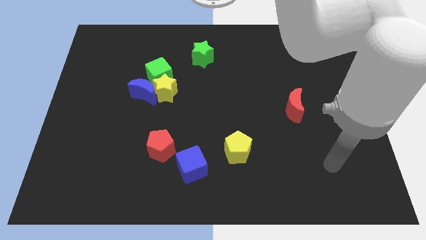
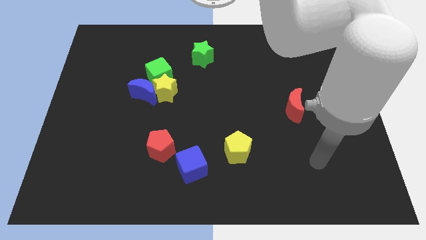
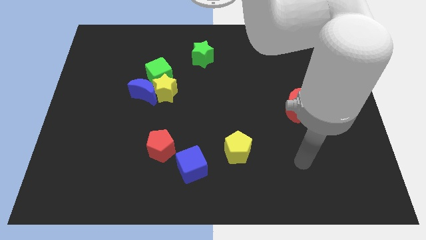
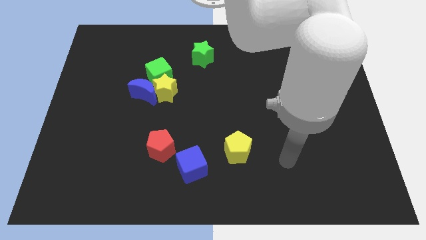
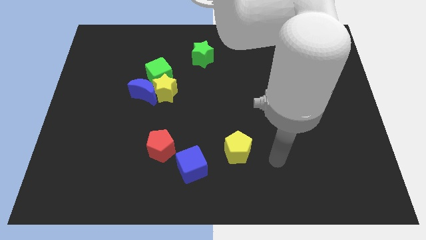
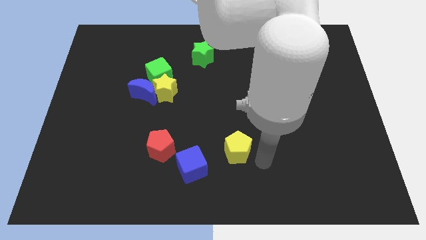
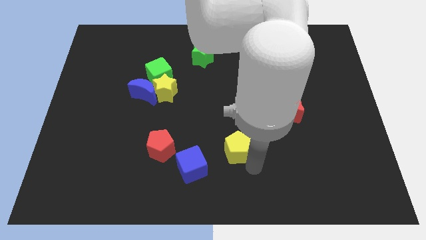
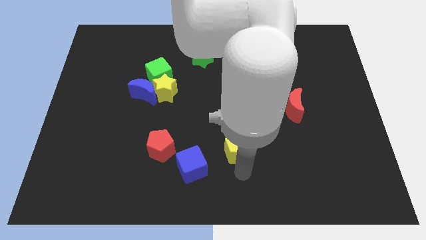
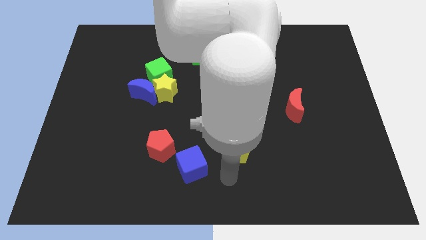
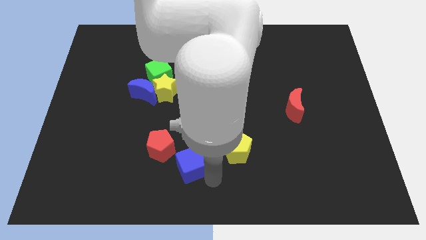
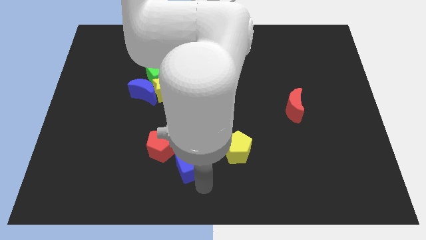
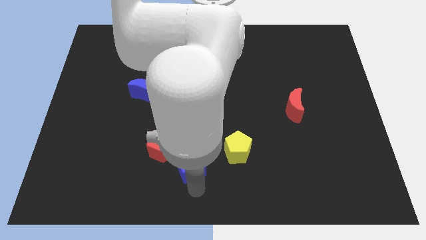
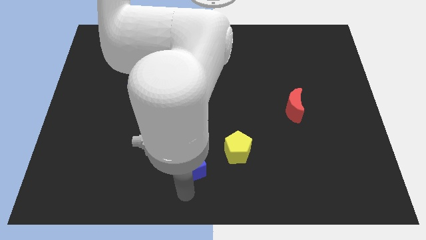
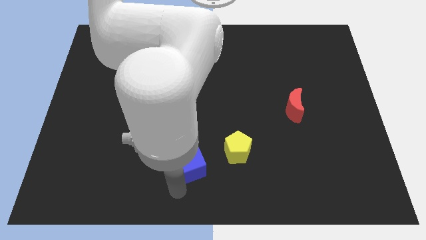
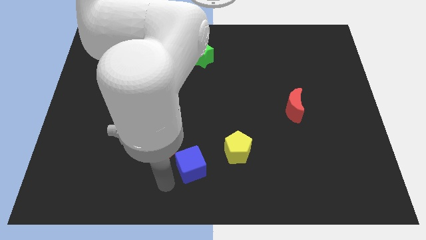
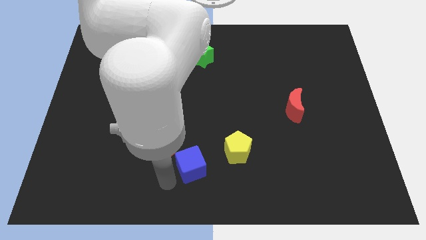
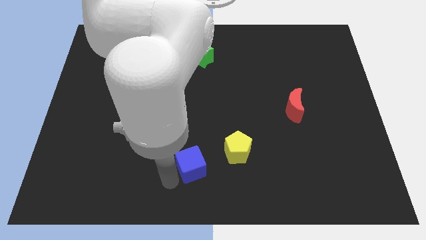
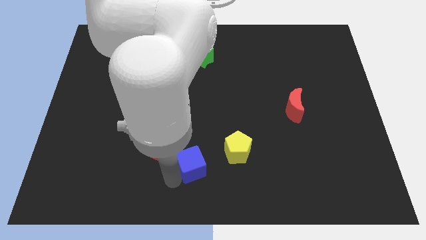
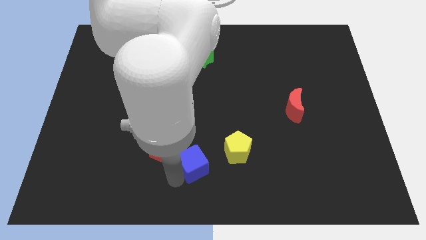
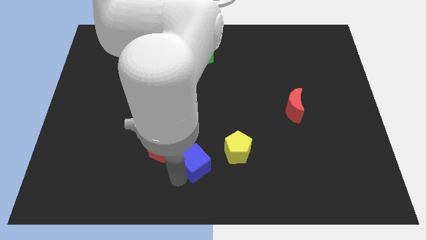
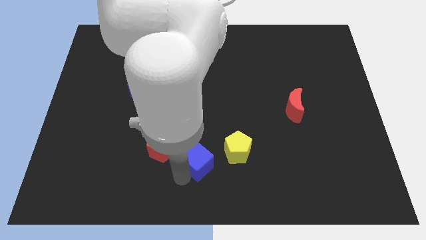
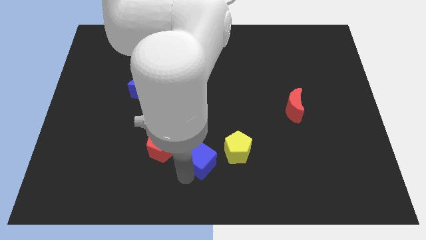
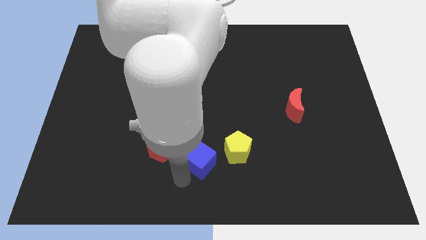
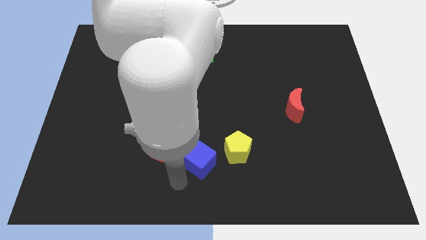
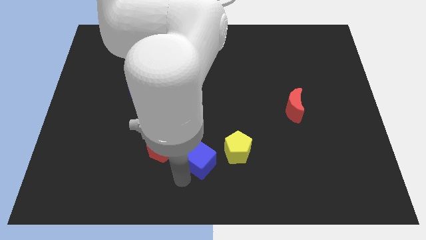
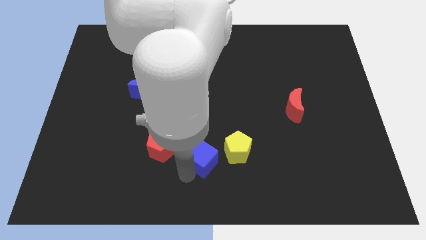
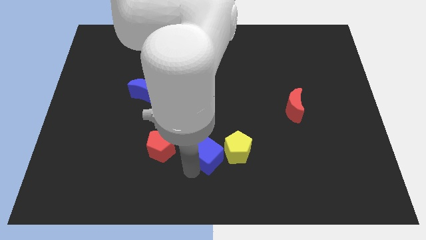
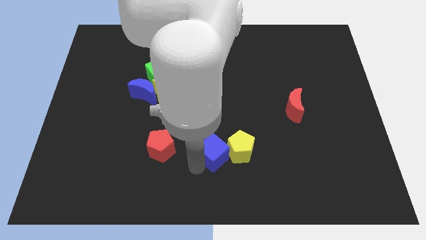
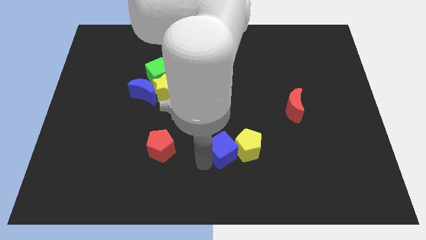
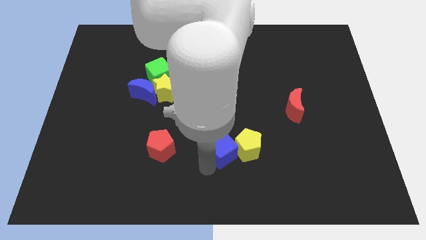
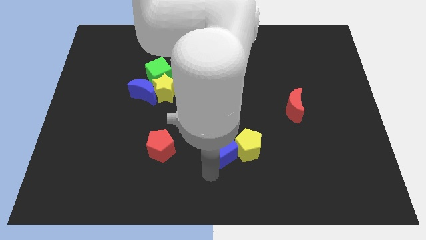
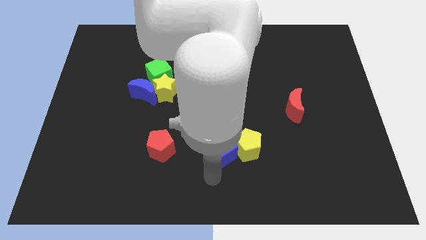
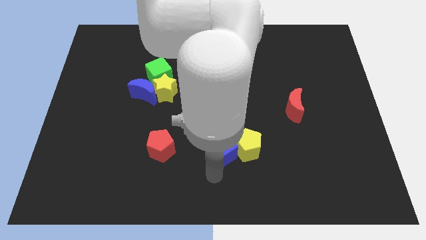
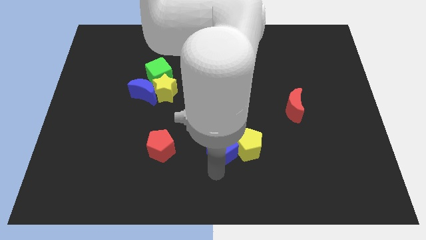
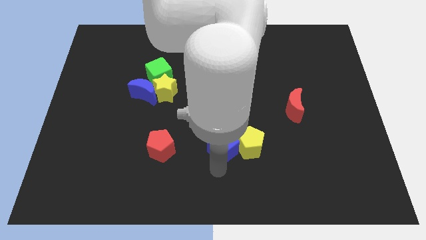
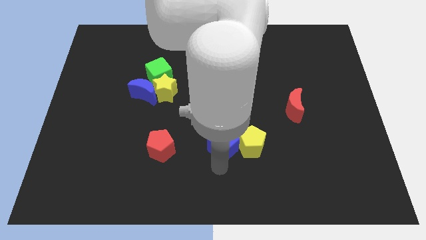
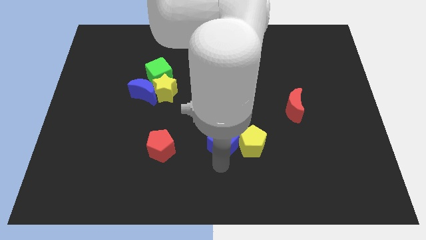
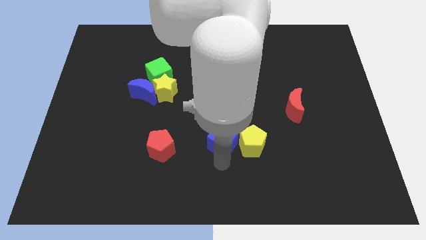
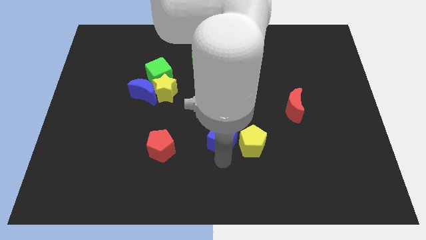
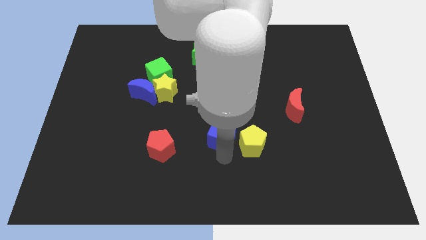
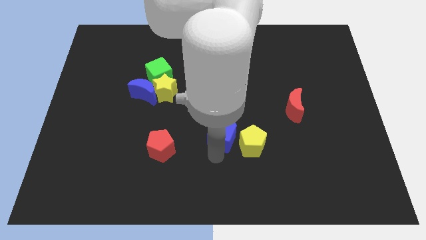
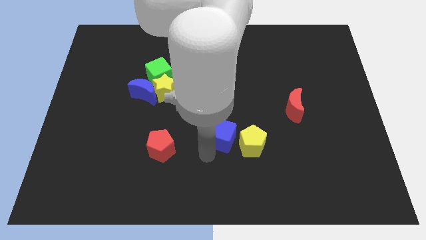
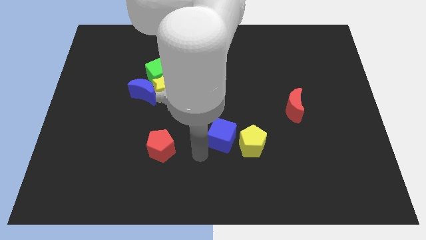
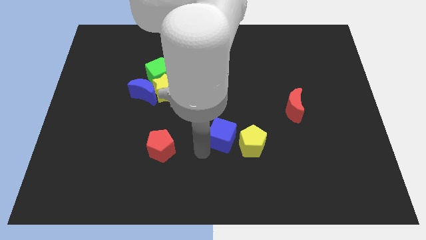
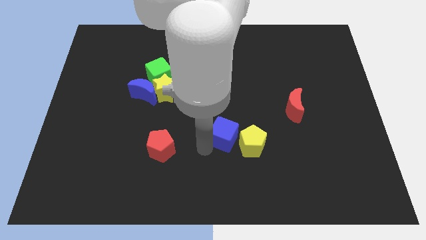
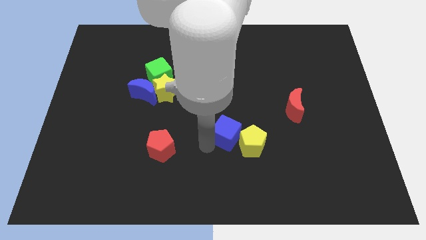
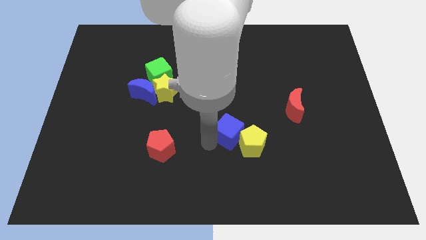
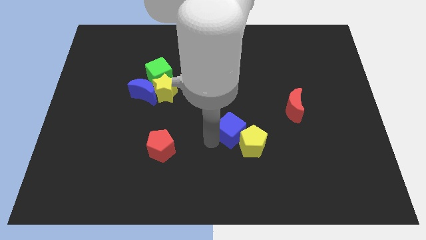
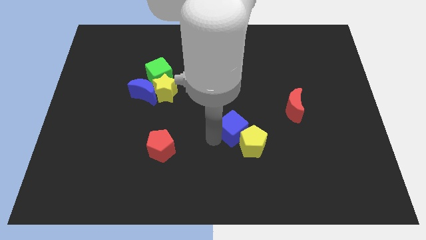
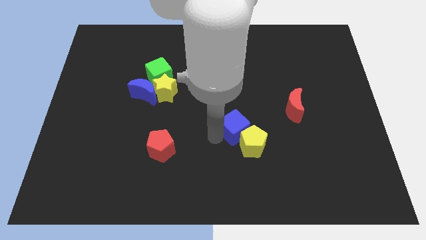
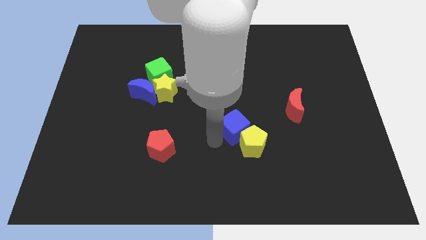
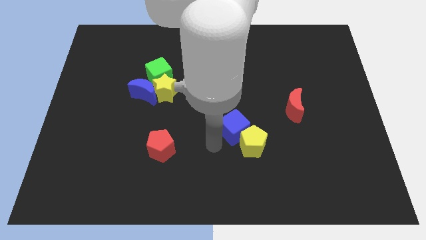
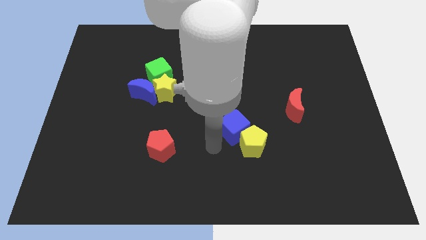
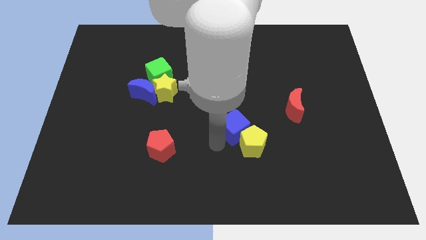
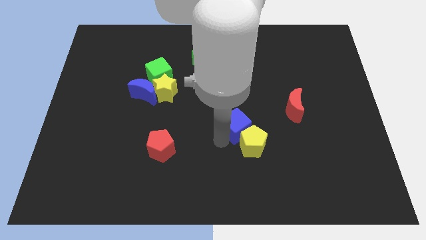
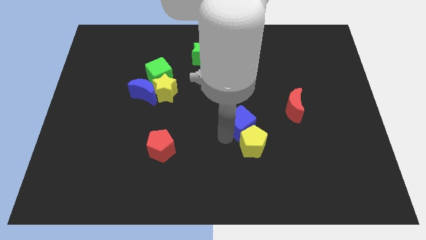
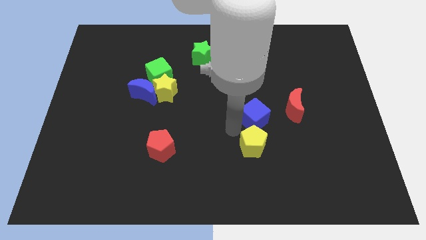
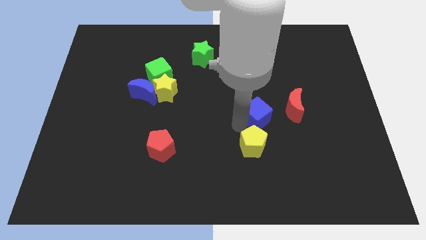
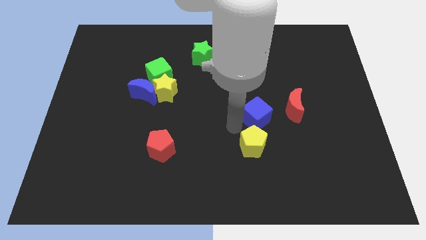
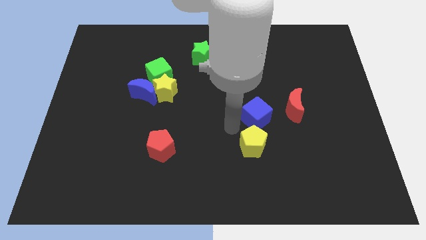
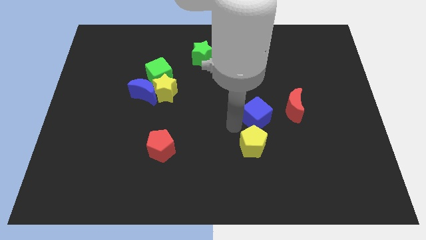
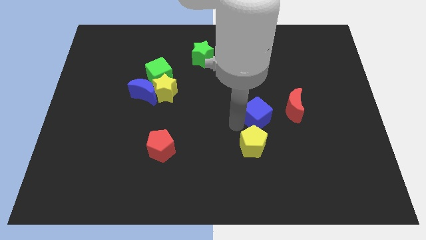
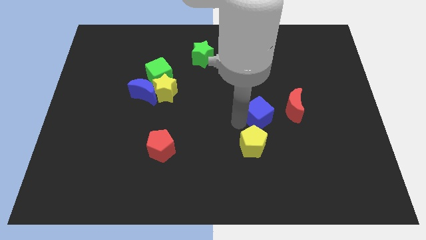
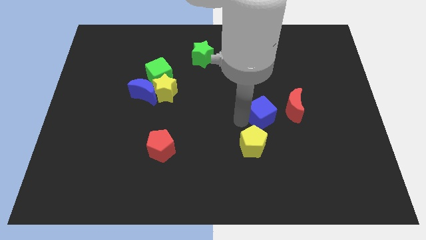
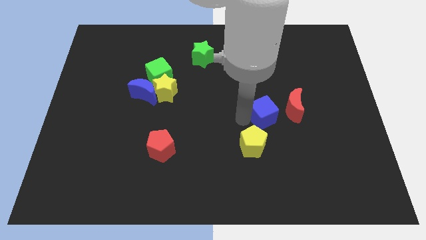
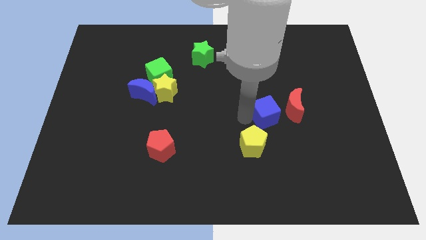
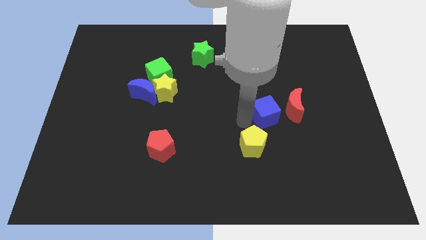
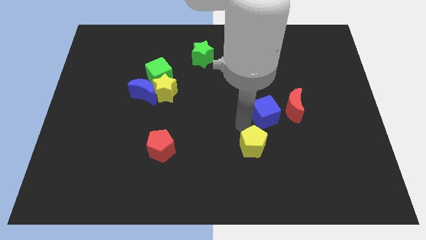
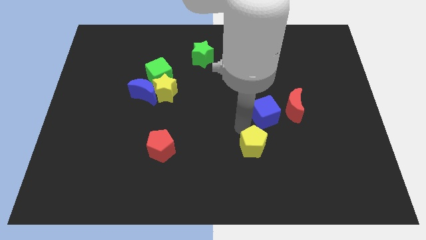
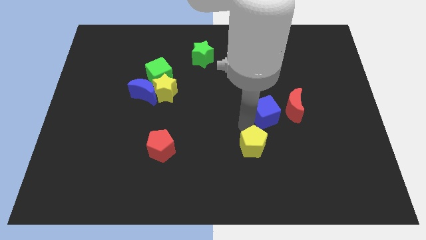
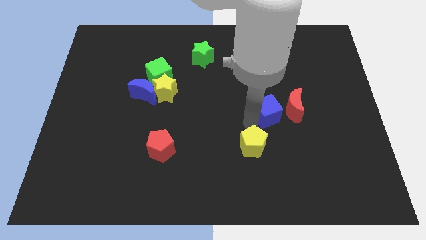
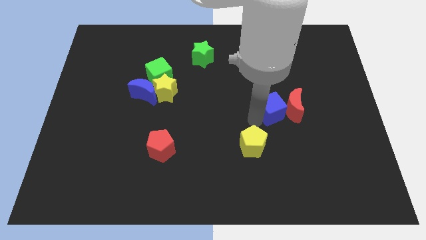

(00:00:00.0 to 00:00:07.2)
move the blue cube towards the red moon
